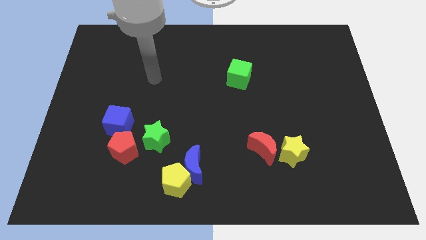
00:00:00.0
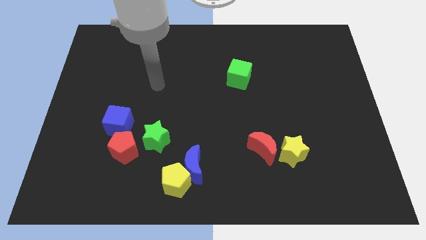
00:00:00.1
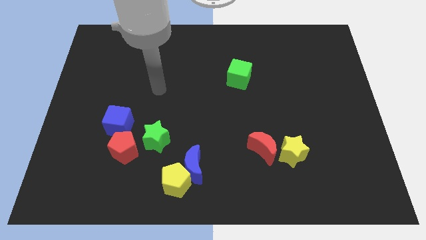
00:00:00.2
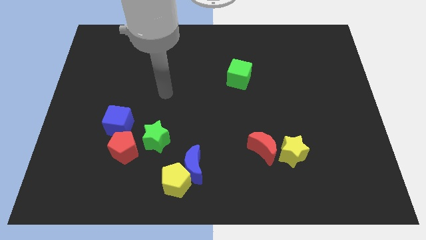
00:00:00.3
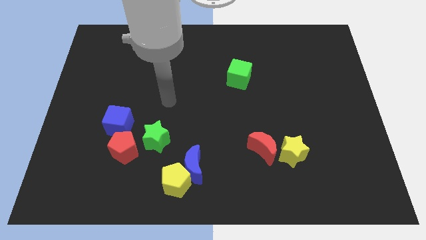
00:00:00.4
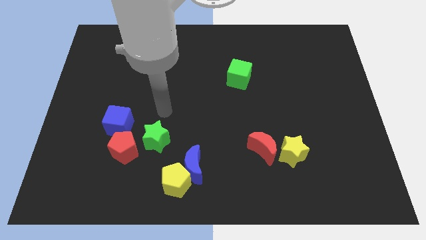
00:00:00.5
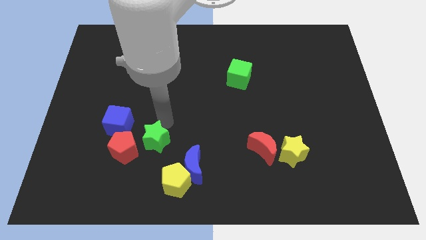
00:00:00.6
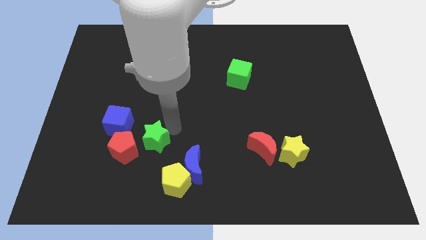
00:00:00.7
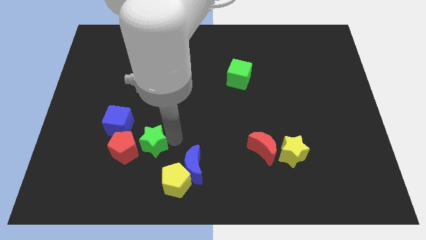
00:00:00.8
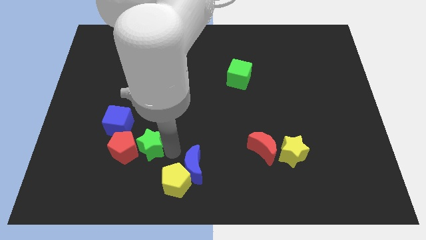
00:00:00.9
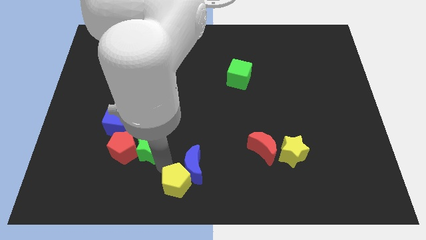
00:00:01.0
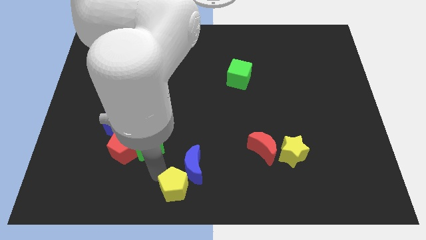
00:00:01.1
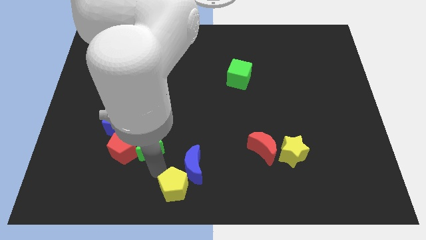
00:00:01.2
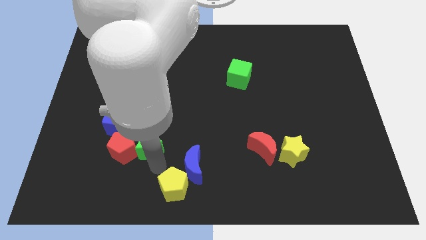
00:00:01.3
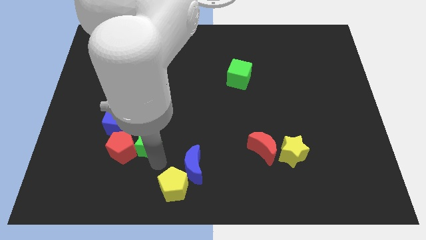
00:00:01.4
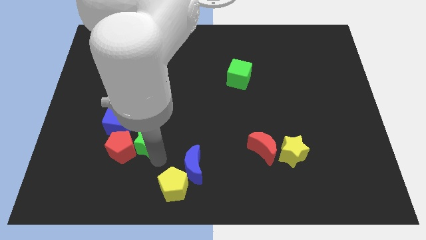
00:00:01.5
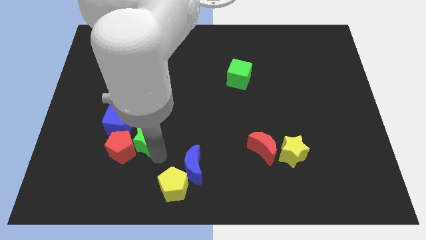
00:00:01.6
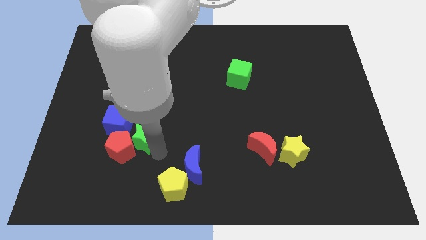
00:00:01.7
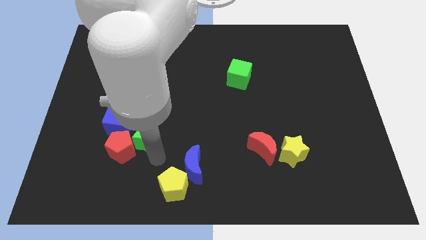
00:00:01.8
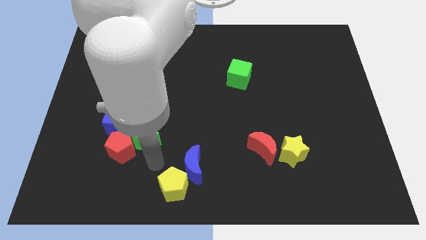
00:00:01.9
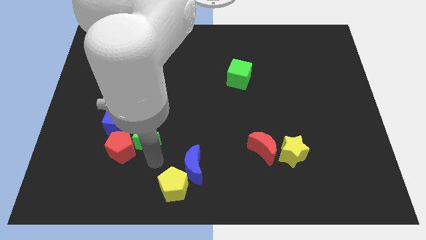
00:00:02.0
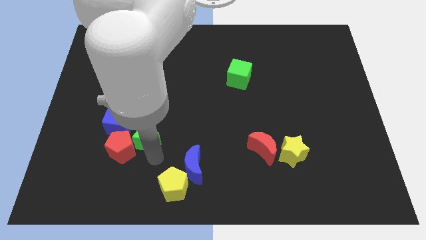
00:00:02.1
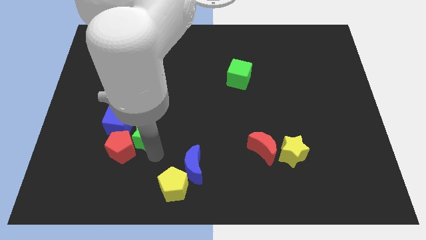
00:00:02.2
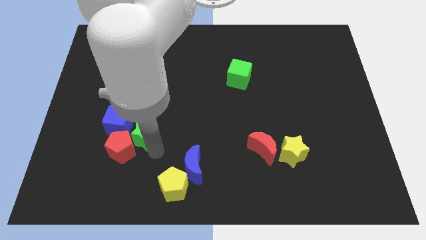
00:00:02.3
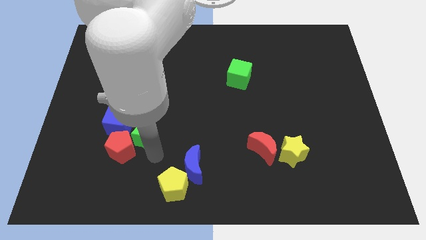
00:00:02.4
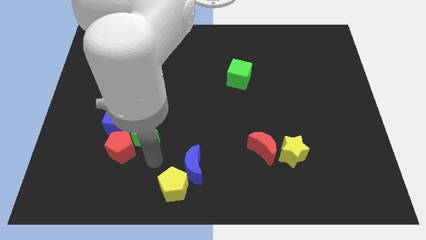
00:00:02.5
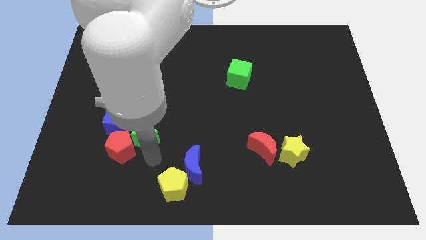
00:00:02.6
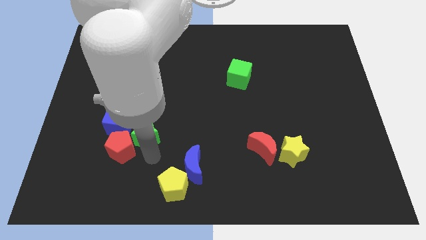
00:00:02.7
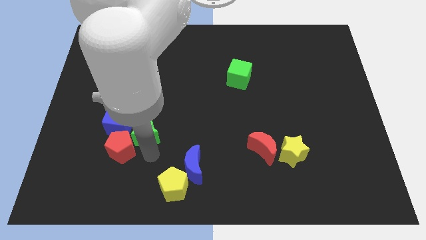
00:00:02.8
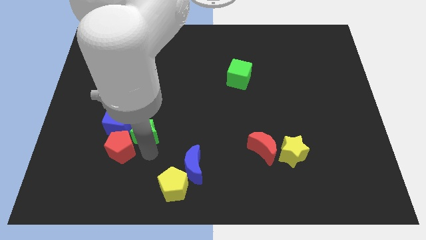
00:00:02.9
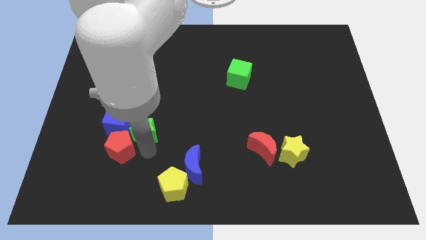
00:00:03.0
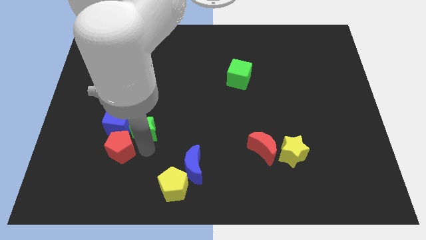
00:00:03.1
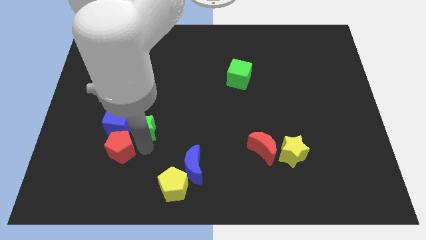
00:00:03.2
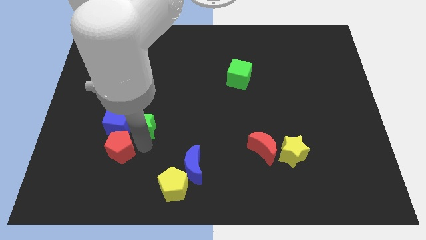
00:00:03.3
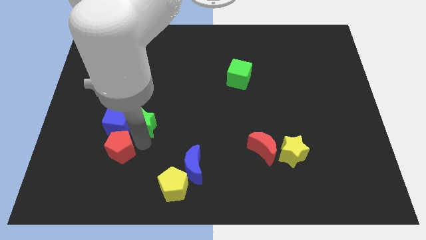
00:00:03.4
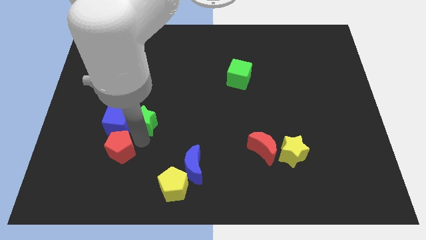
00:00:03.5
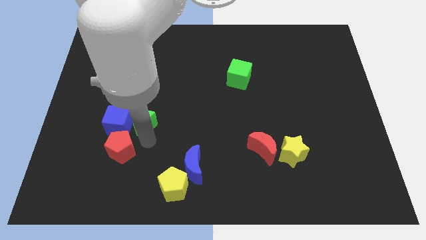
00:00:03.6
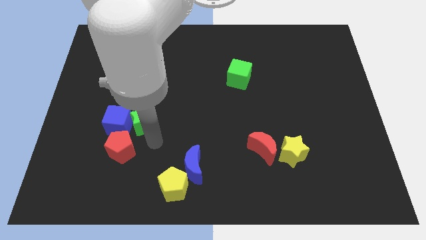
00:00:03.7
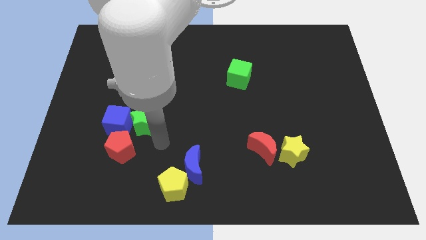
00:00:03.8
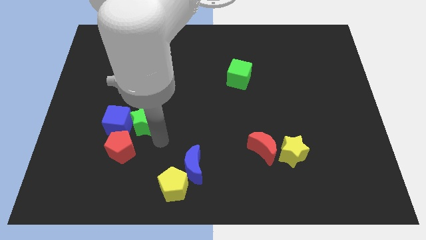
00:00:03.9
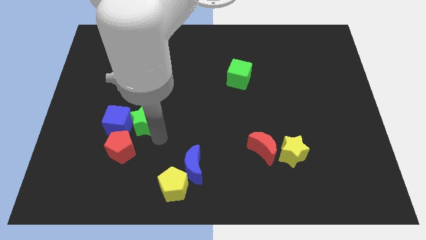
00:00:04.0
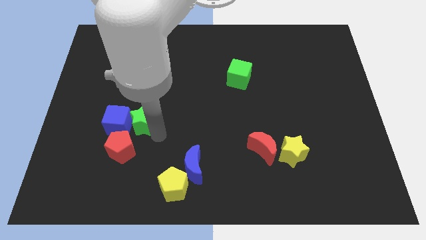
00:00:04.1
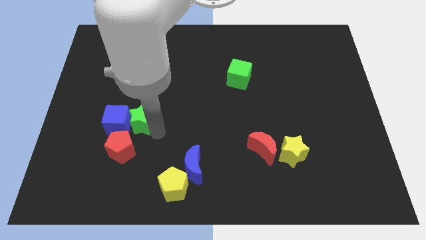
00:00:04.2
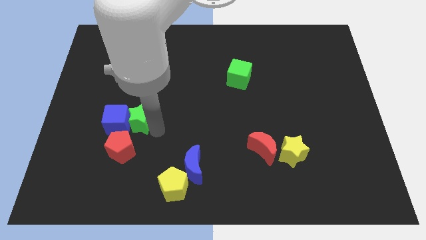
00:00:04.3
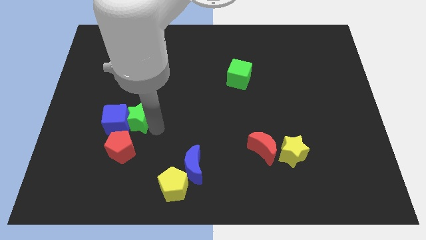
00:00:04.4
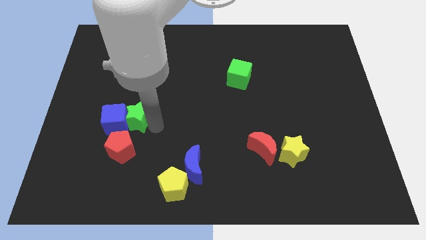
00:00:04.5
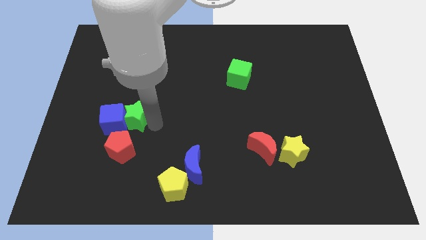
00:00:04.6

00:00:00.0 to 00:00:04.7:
slide the green star somewhat up and left

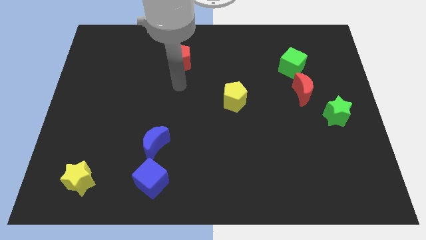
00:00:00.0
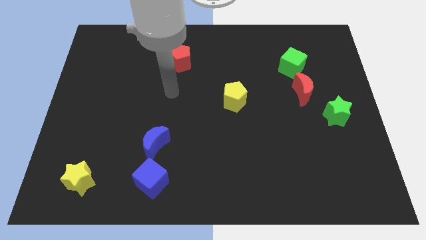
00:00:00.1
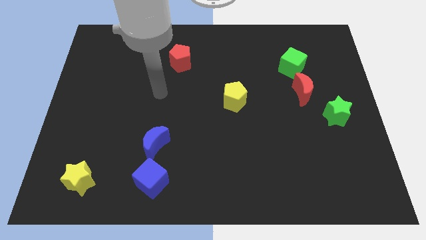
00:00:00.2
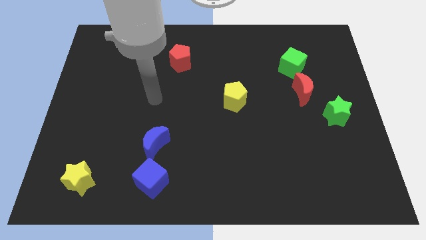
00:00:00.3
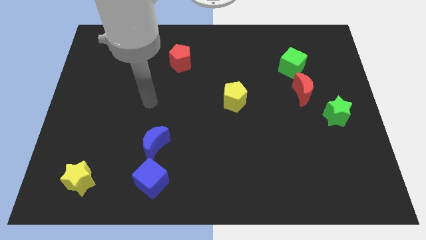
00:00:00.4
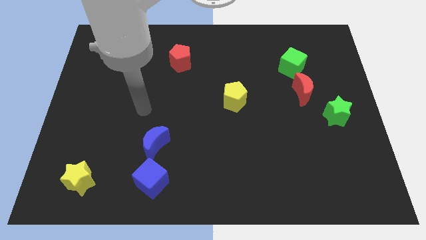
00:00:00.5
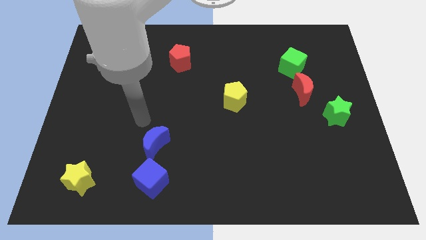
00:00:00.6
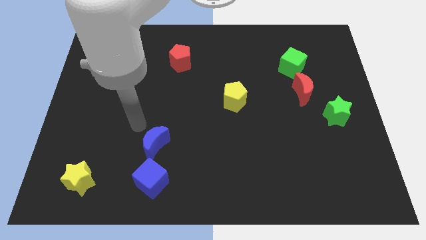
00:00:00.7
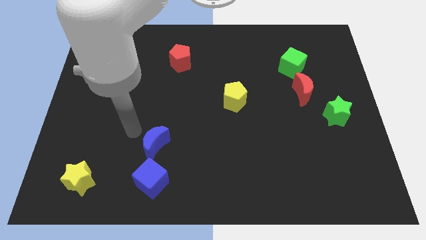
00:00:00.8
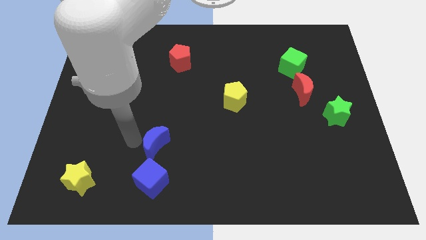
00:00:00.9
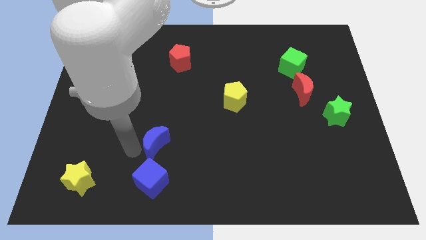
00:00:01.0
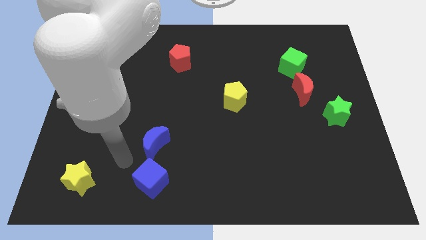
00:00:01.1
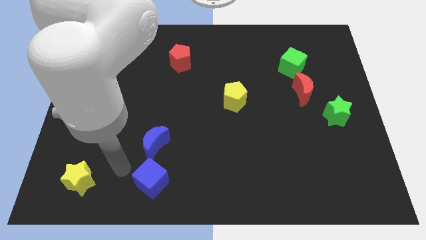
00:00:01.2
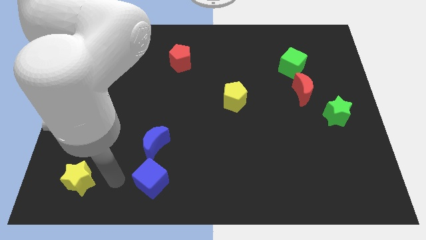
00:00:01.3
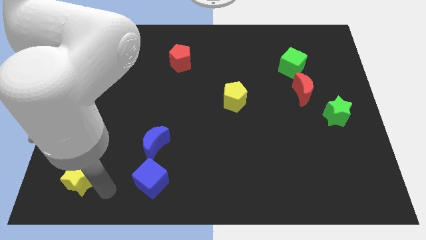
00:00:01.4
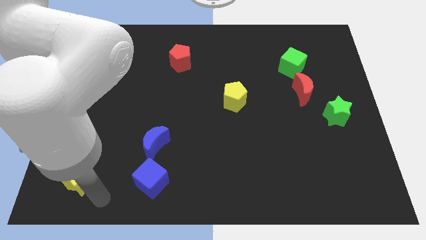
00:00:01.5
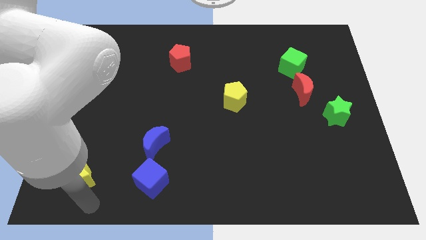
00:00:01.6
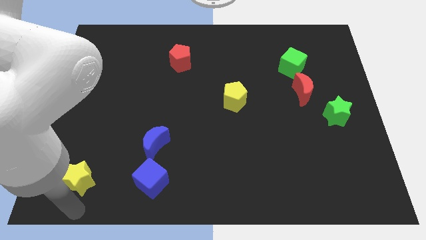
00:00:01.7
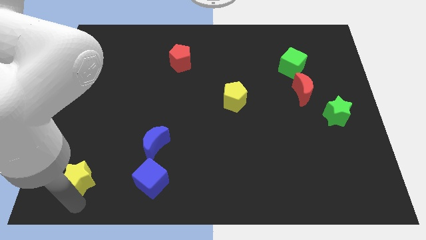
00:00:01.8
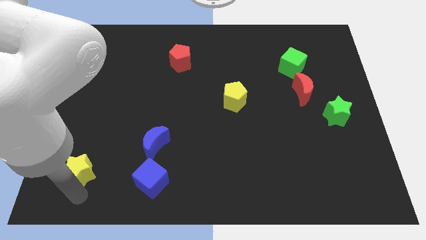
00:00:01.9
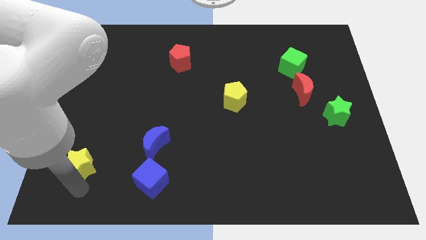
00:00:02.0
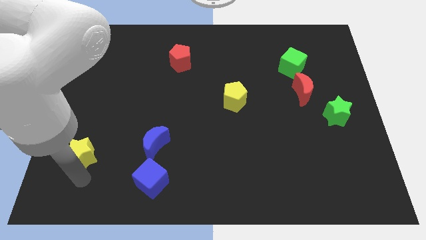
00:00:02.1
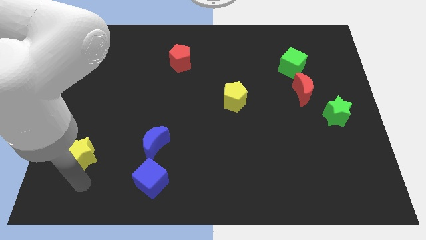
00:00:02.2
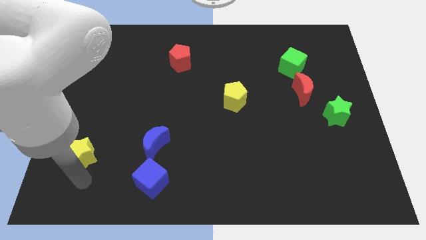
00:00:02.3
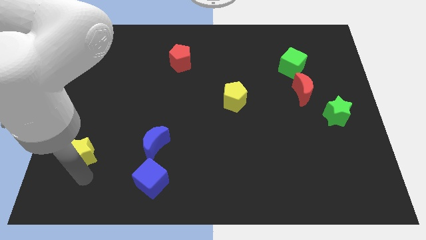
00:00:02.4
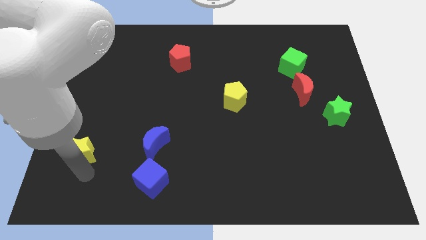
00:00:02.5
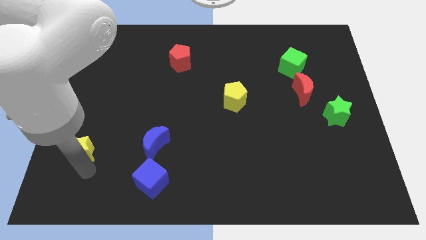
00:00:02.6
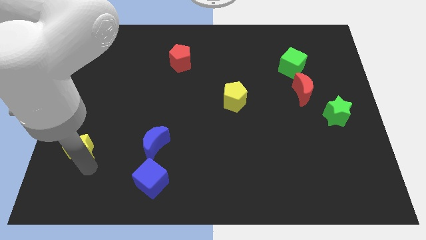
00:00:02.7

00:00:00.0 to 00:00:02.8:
push the yellow star upwards somewhat

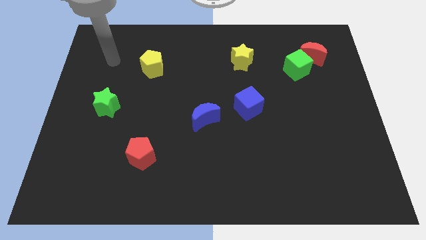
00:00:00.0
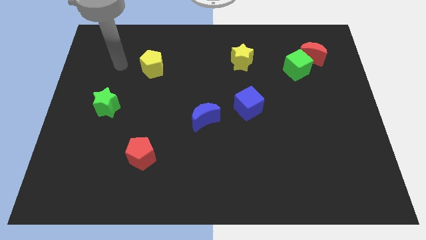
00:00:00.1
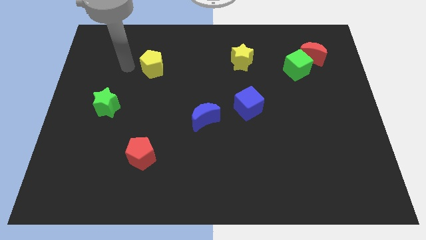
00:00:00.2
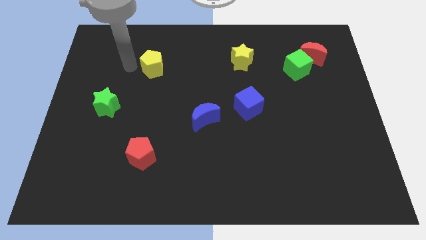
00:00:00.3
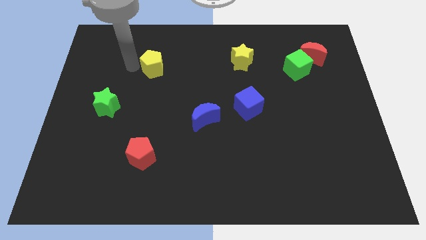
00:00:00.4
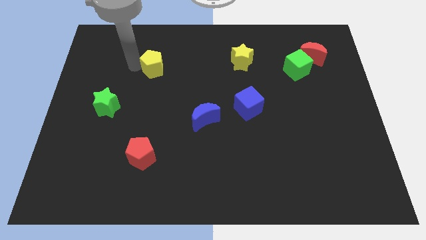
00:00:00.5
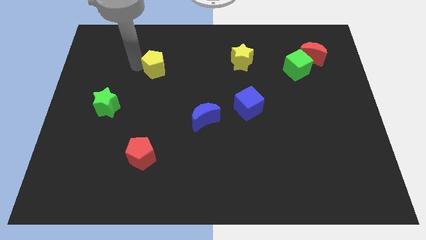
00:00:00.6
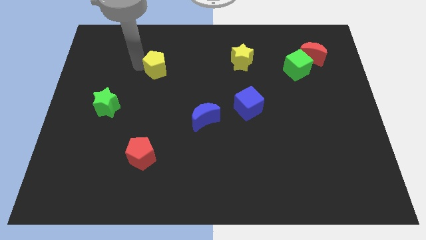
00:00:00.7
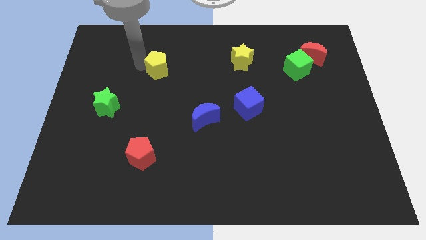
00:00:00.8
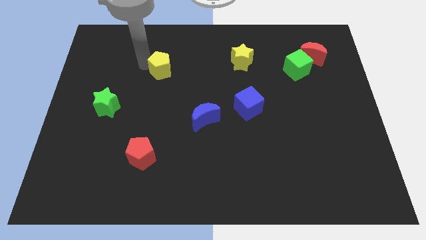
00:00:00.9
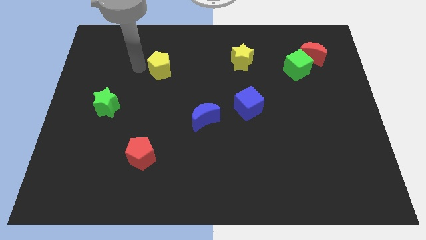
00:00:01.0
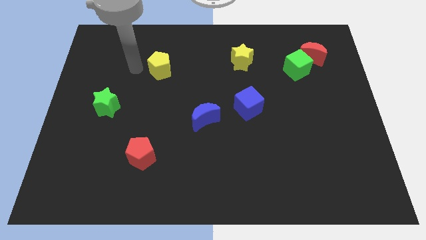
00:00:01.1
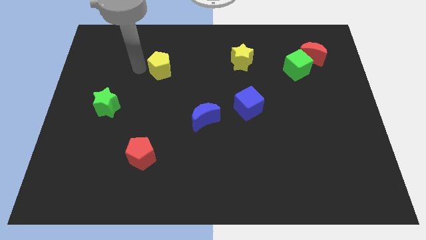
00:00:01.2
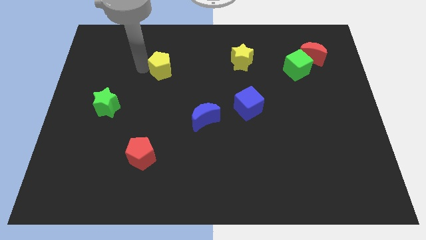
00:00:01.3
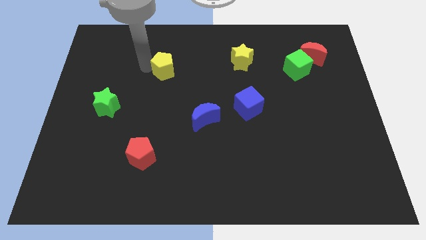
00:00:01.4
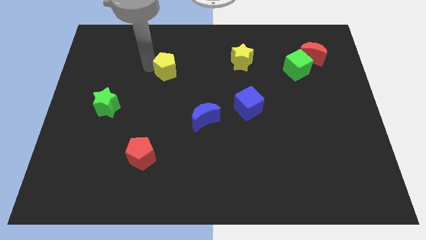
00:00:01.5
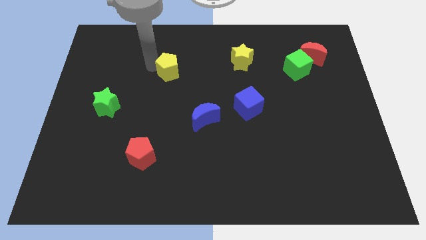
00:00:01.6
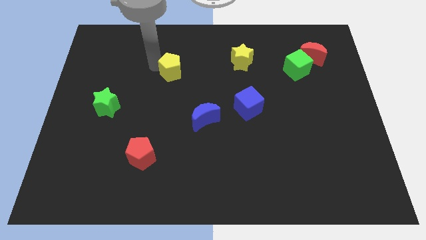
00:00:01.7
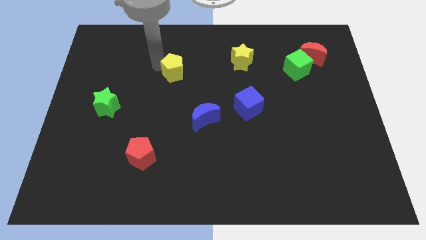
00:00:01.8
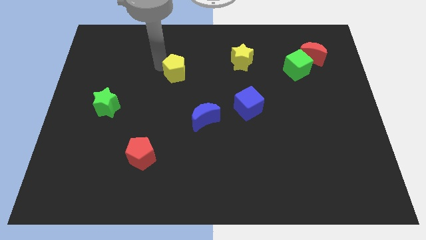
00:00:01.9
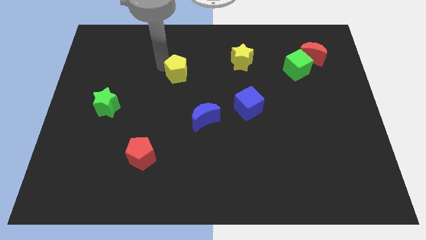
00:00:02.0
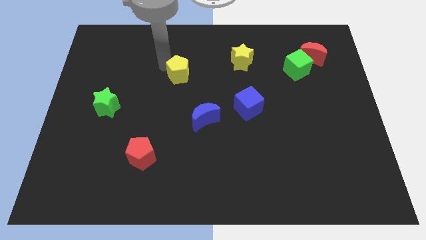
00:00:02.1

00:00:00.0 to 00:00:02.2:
move the yellow pentagon to the right a little bit
